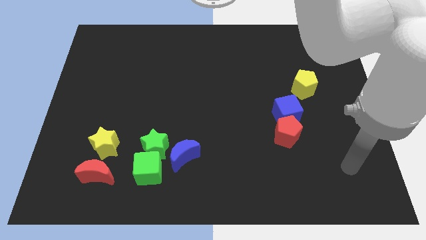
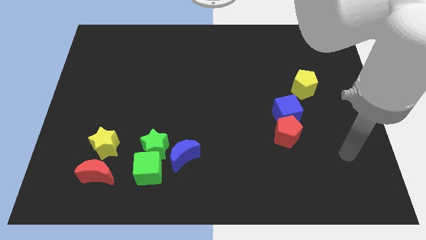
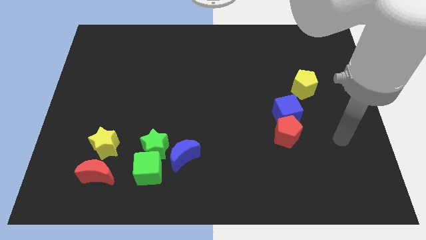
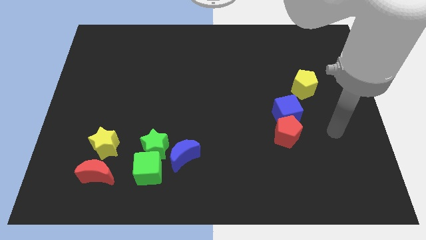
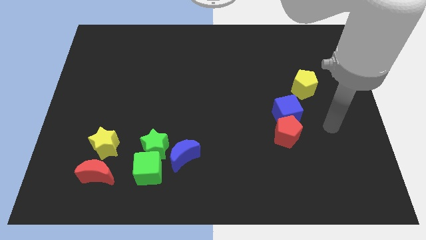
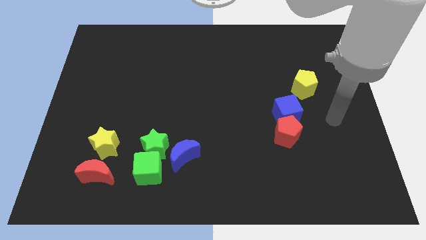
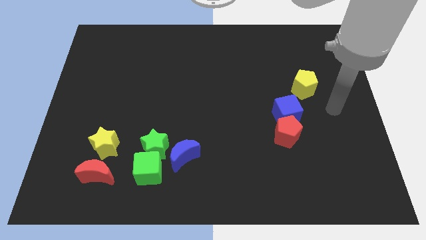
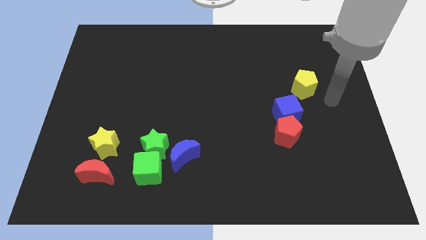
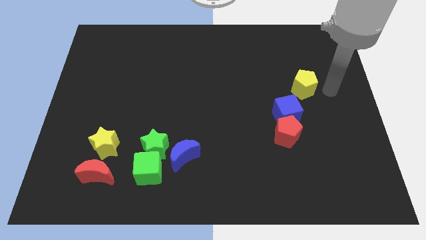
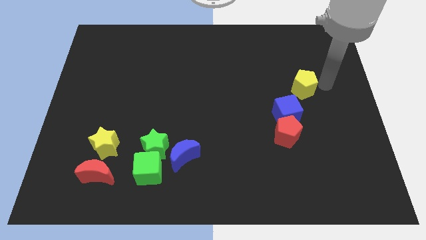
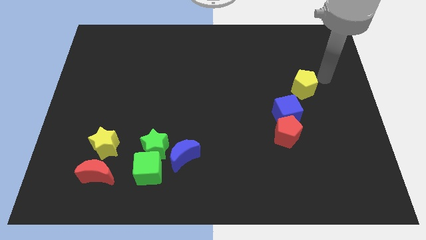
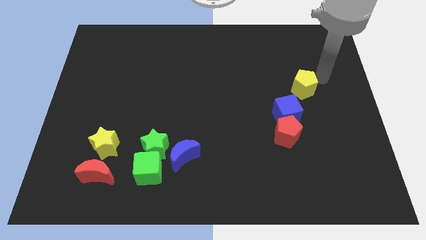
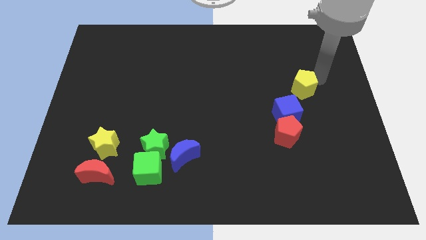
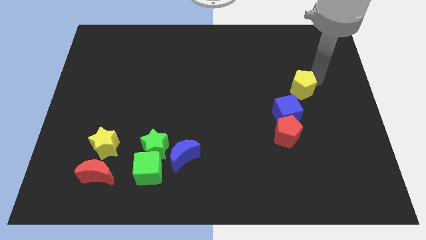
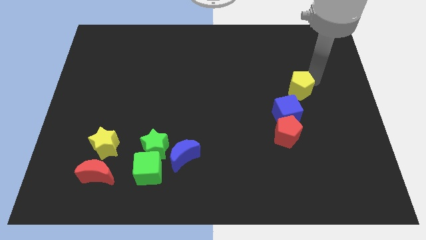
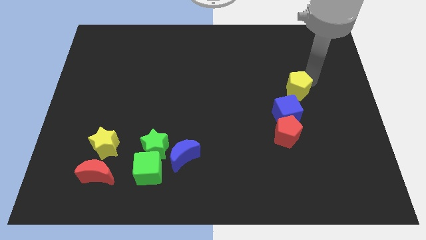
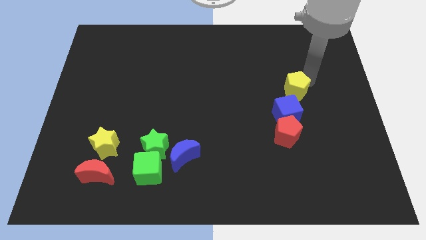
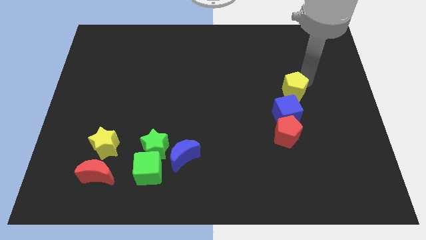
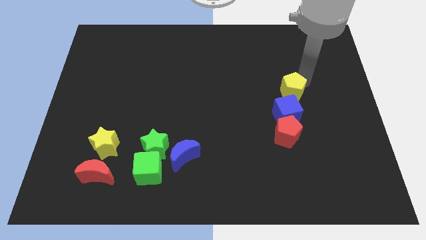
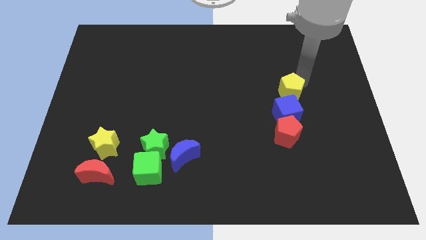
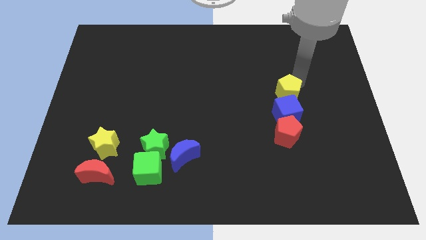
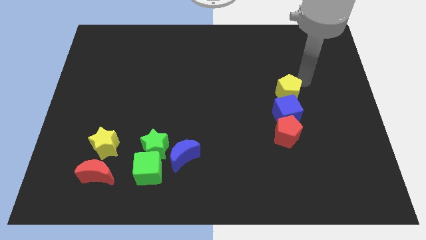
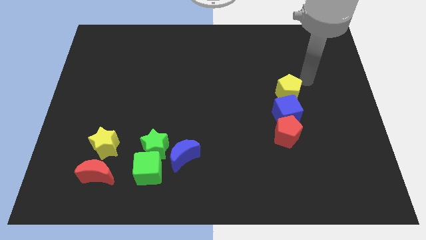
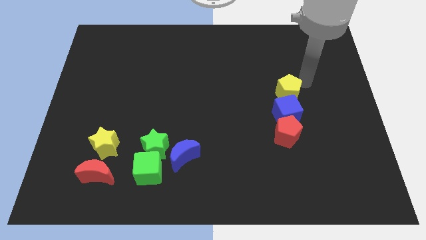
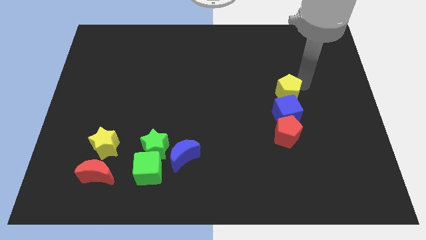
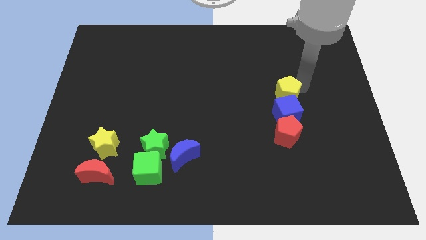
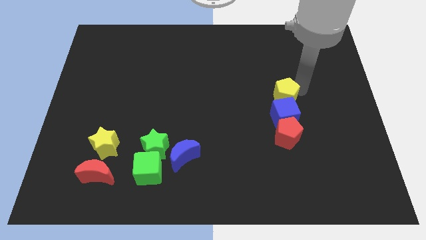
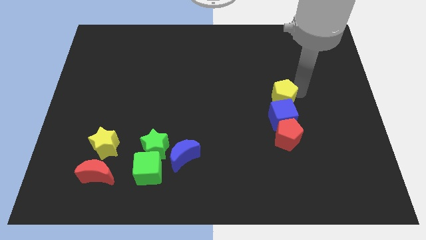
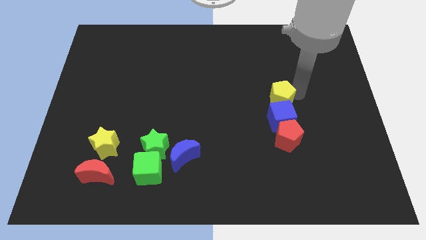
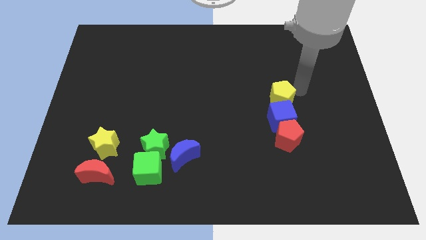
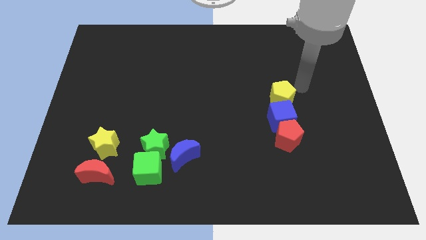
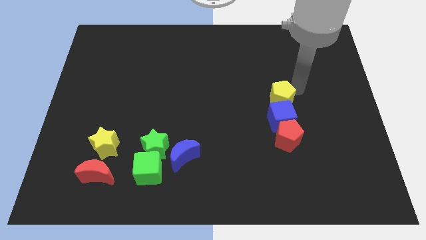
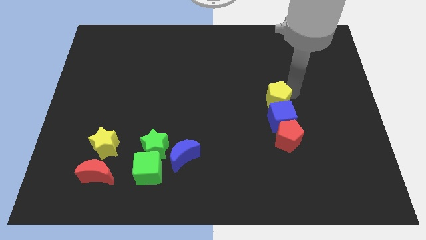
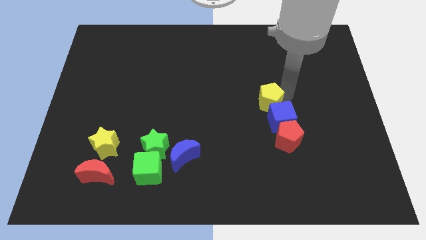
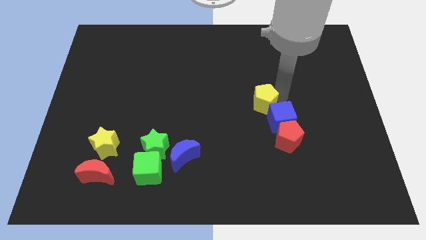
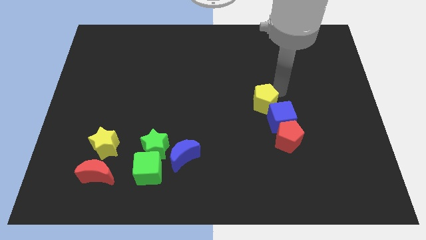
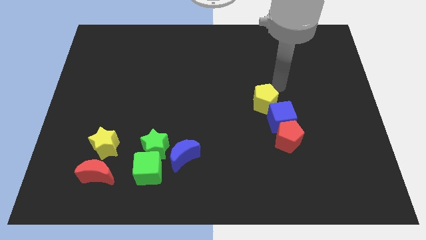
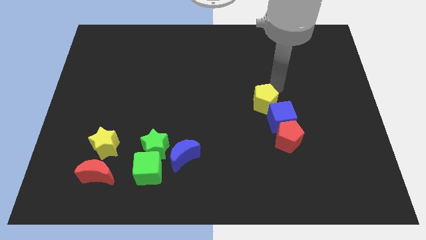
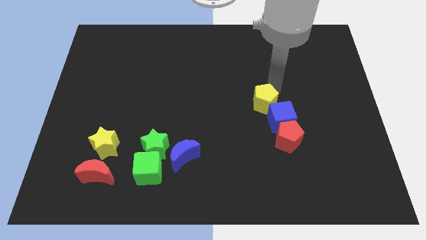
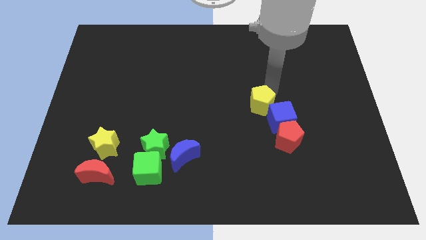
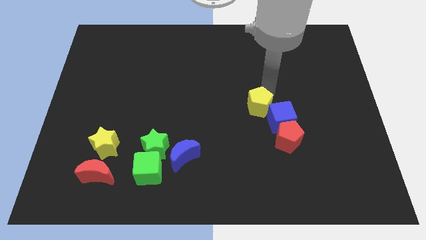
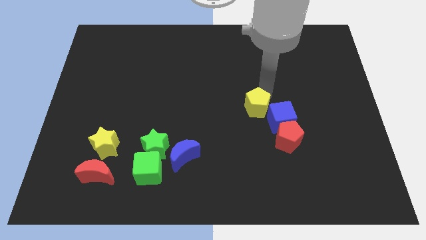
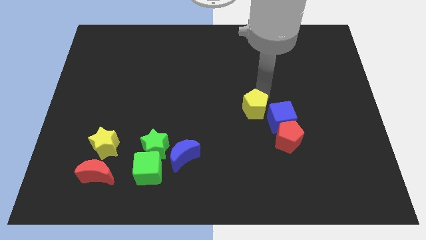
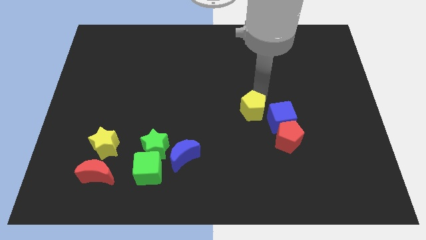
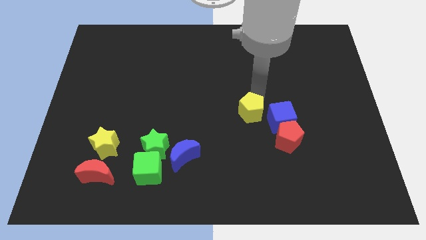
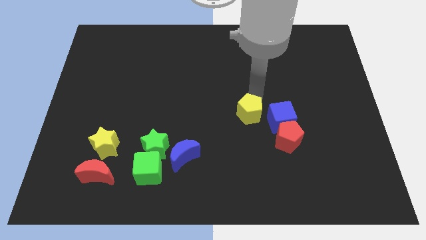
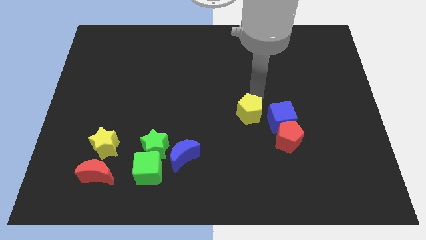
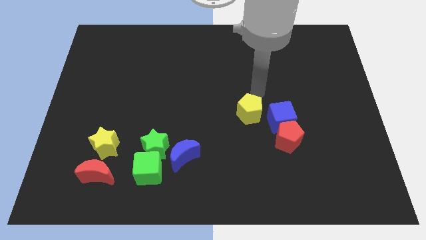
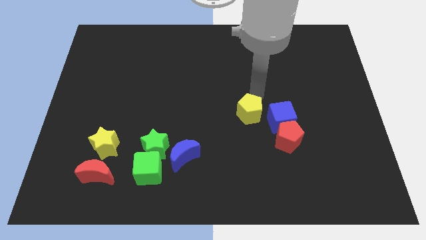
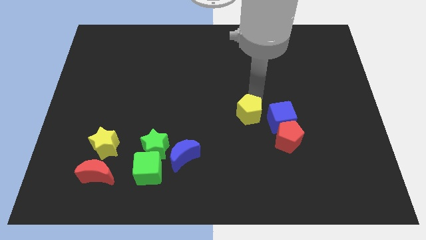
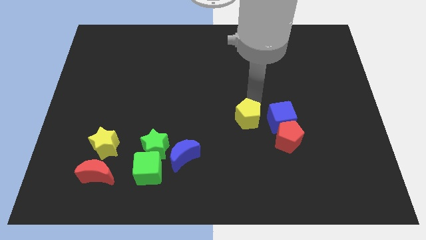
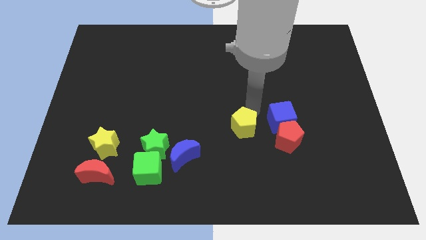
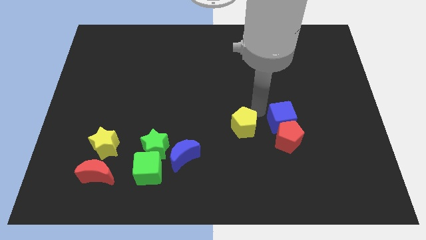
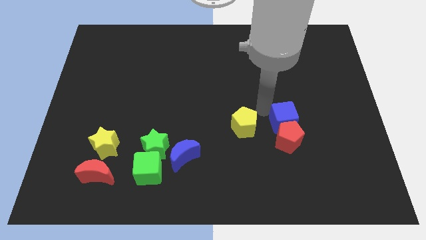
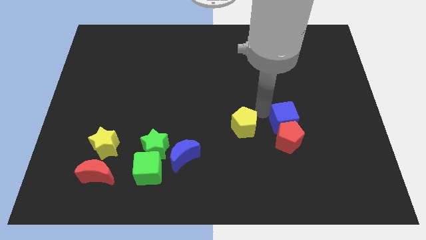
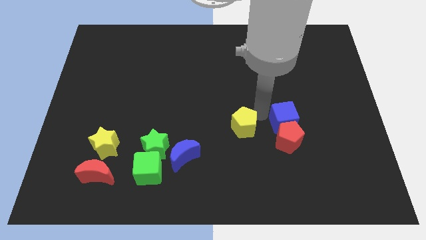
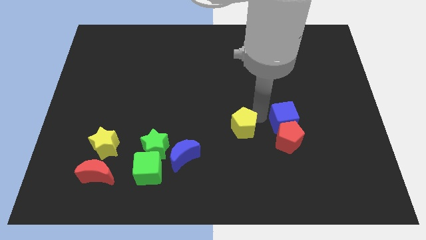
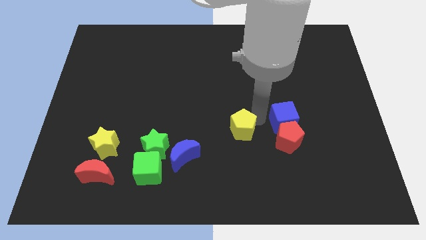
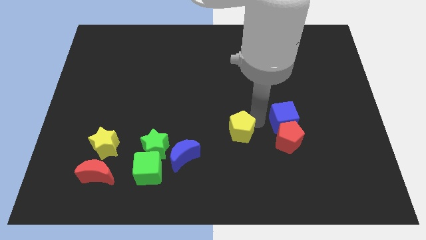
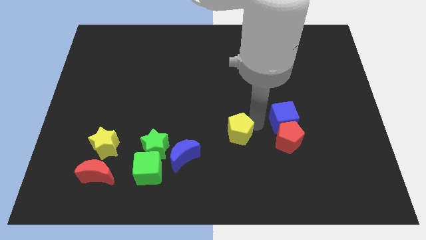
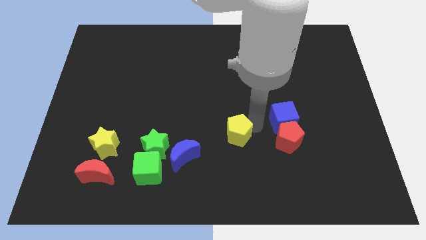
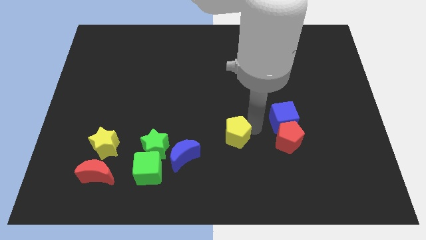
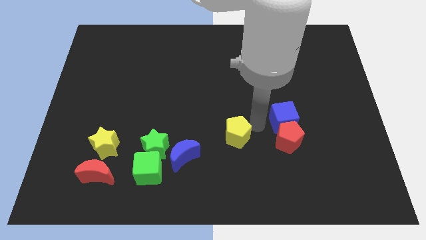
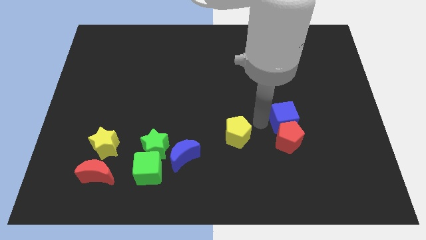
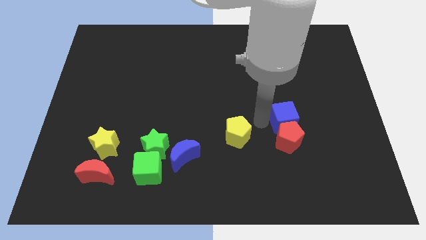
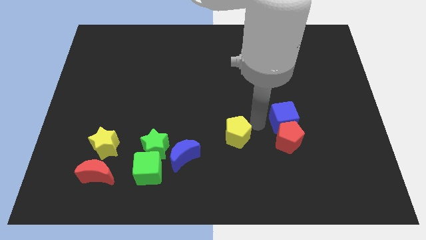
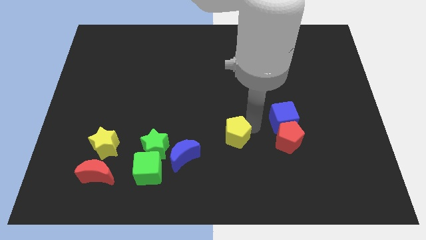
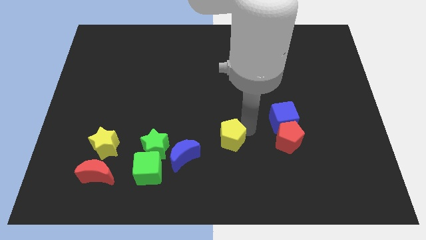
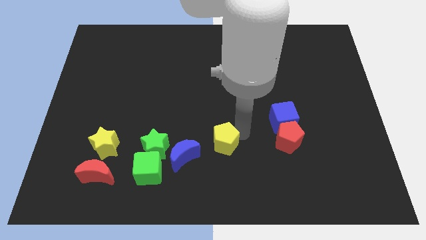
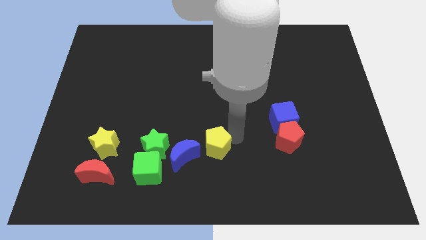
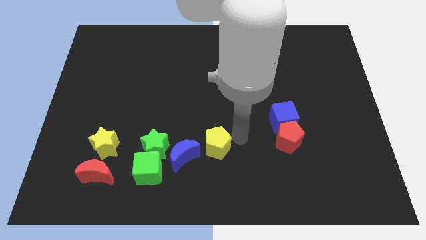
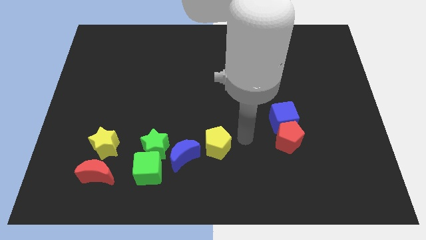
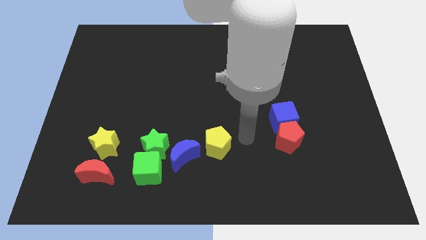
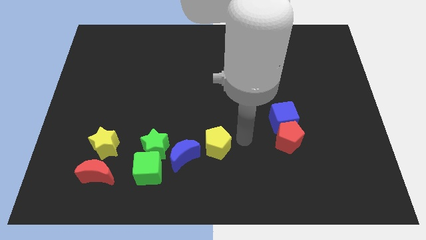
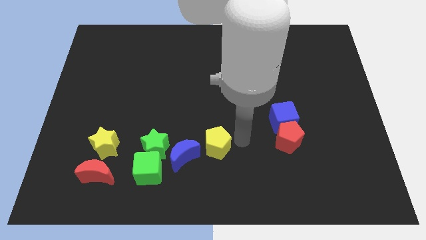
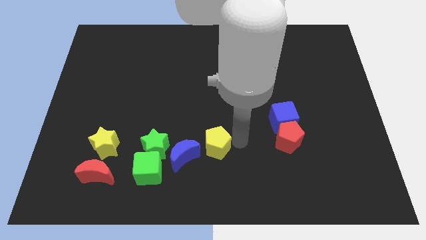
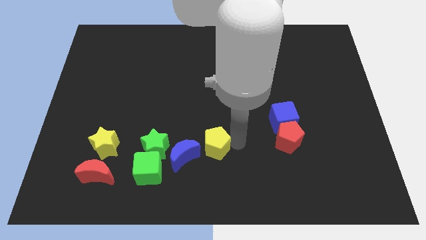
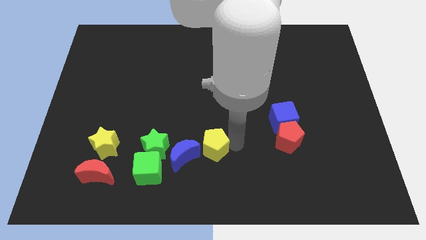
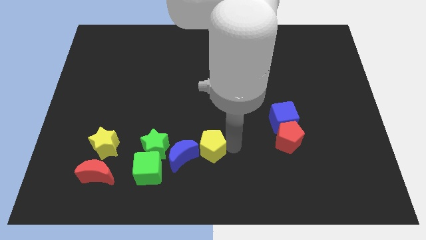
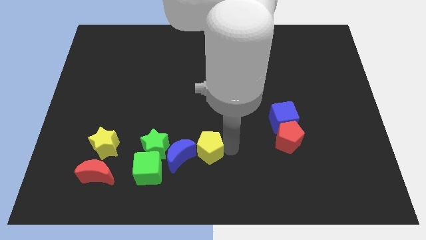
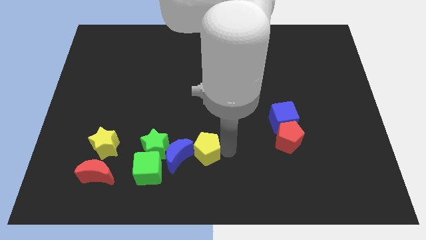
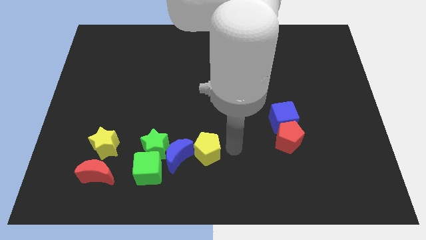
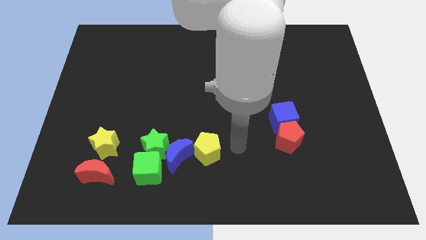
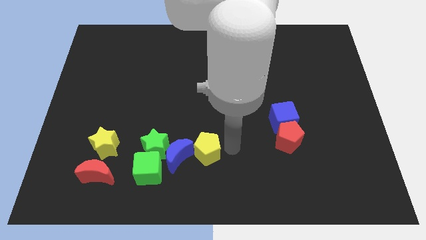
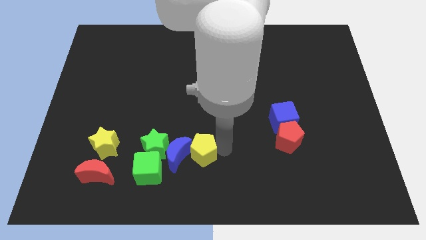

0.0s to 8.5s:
push the yellow pentagon close to the blue moon
